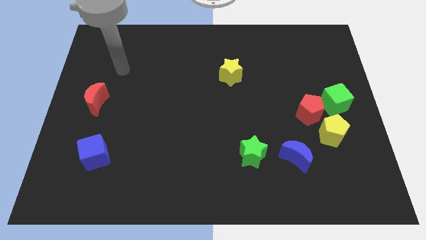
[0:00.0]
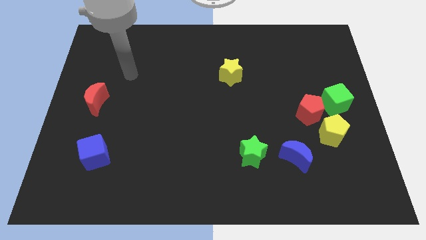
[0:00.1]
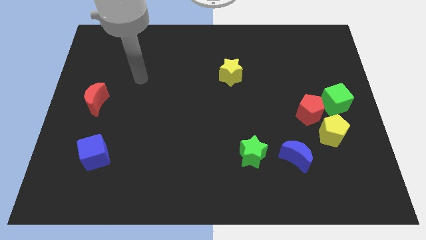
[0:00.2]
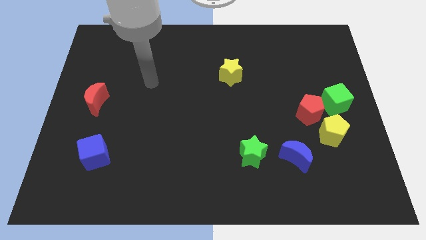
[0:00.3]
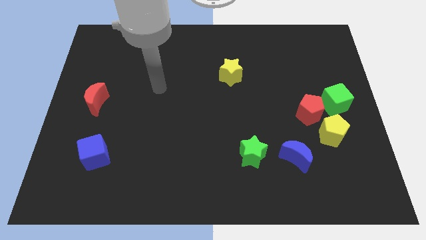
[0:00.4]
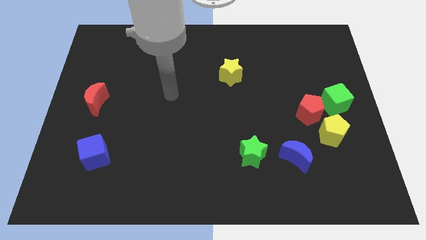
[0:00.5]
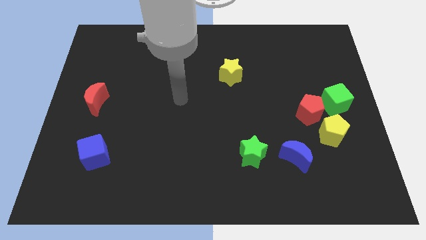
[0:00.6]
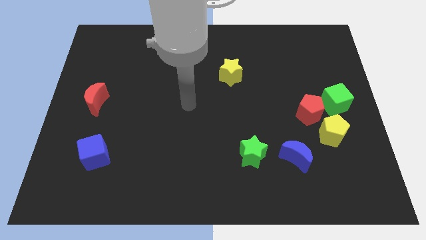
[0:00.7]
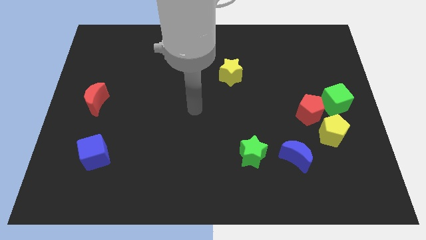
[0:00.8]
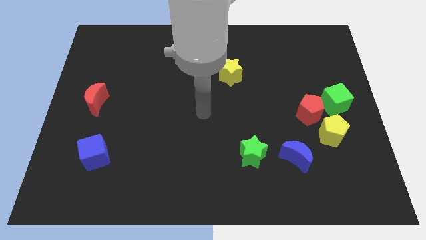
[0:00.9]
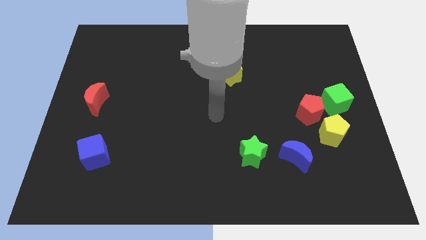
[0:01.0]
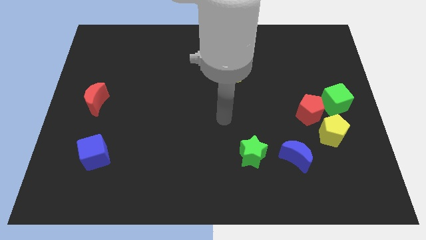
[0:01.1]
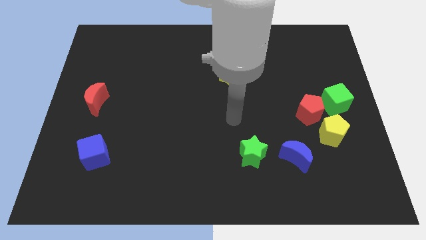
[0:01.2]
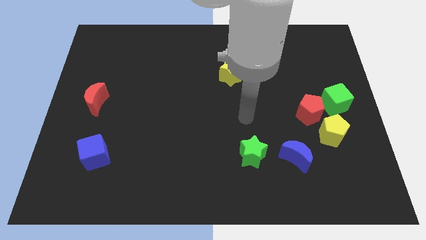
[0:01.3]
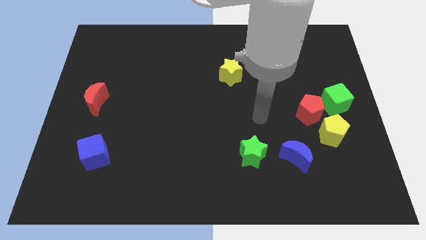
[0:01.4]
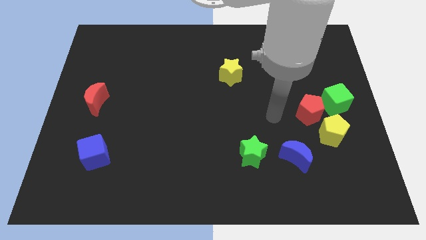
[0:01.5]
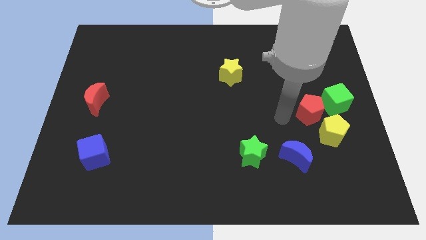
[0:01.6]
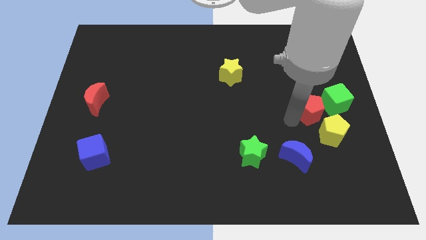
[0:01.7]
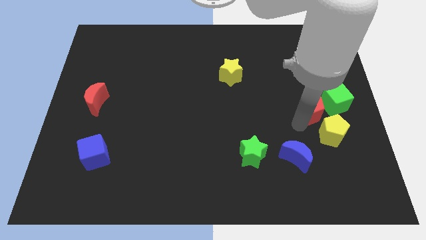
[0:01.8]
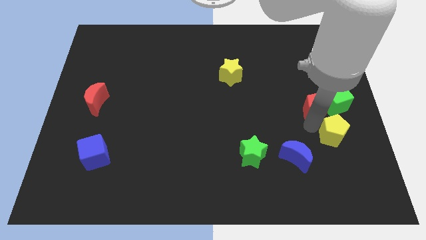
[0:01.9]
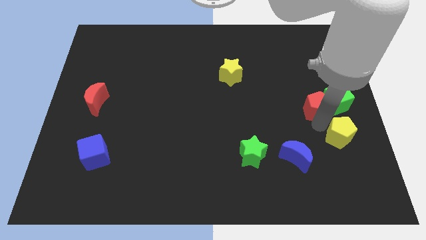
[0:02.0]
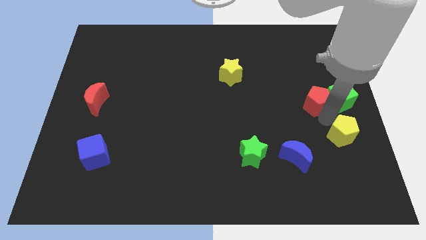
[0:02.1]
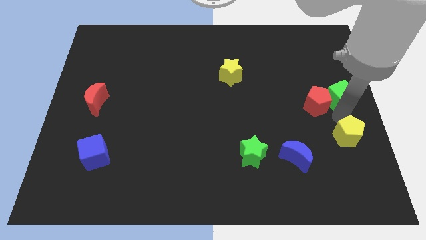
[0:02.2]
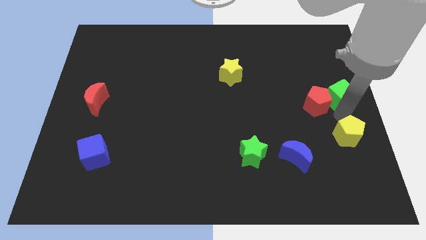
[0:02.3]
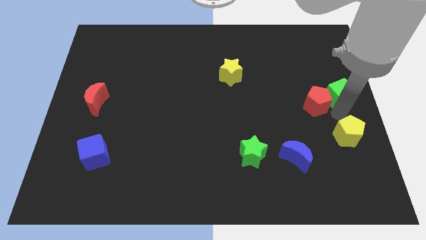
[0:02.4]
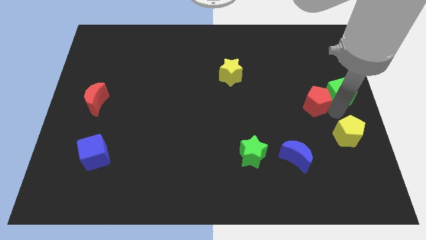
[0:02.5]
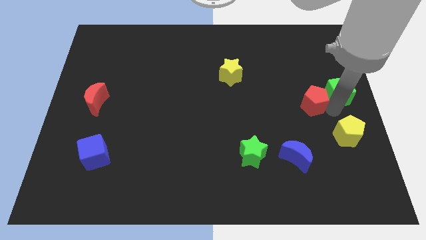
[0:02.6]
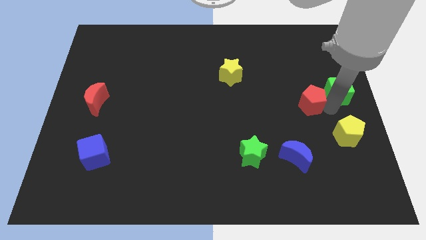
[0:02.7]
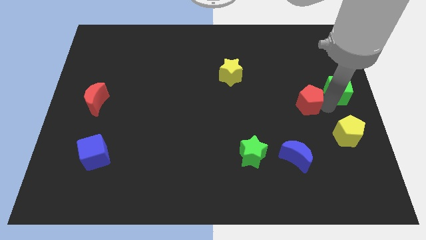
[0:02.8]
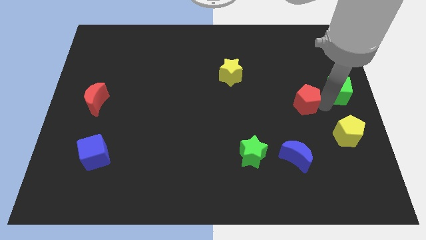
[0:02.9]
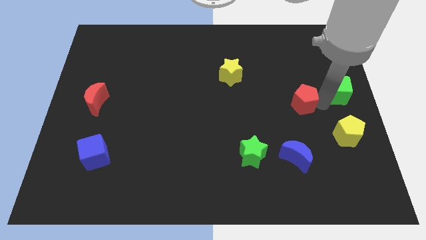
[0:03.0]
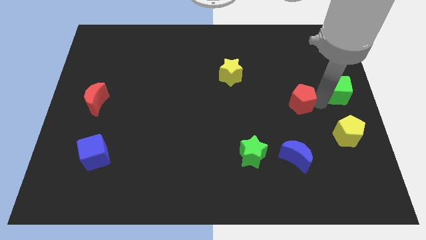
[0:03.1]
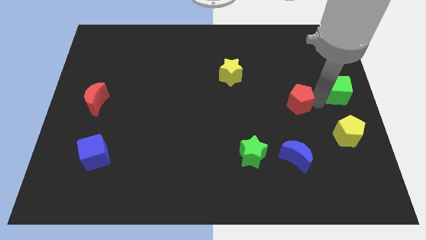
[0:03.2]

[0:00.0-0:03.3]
pull the red pentagon apart from the green cube and yellow pentagon

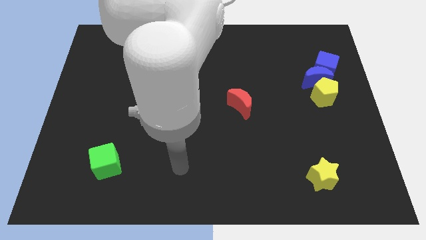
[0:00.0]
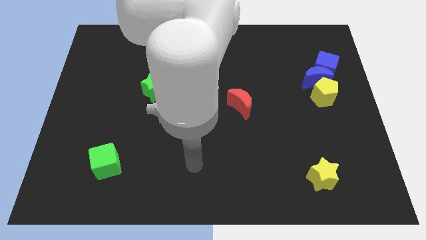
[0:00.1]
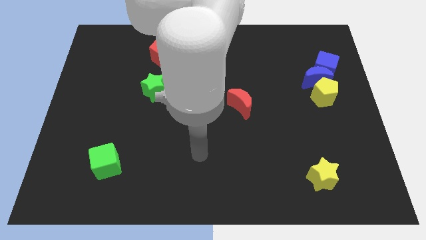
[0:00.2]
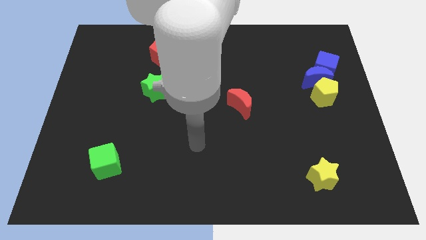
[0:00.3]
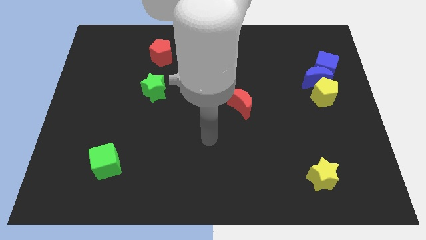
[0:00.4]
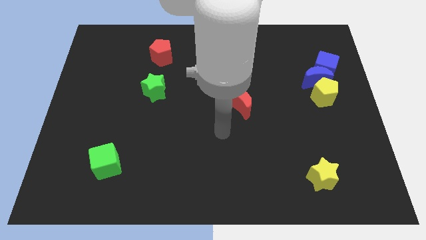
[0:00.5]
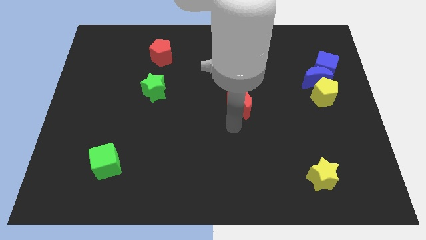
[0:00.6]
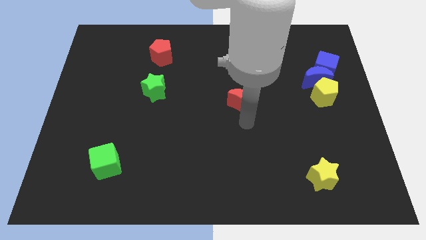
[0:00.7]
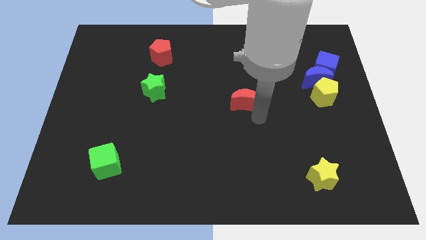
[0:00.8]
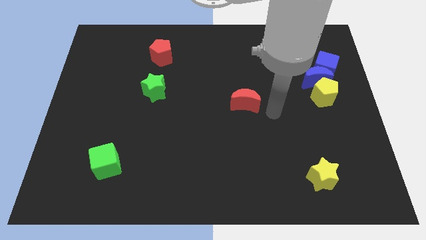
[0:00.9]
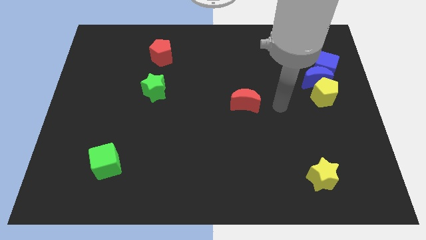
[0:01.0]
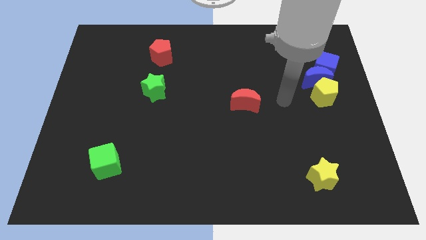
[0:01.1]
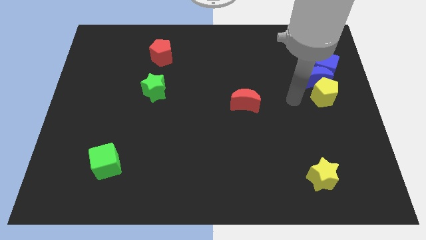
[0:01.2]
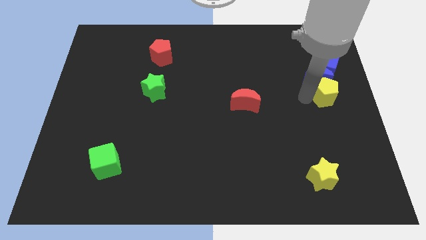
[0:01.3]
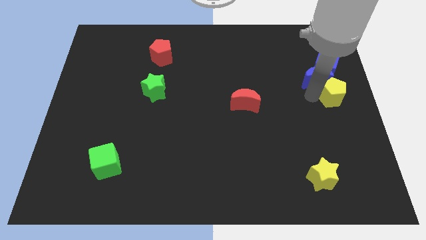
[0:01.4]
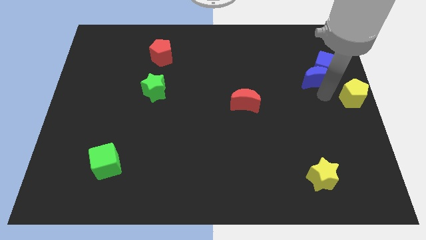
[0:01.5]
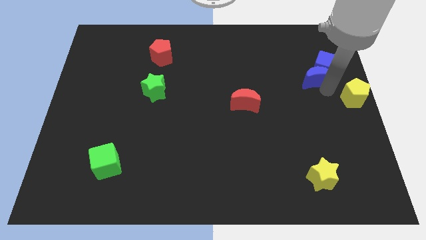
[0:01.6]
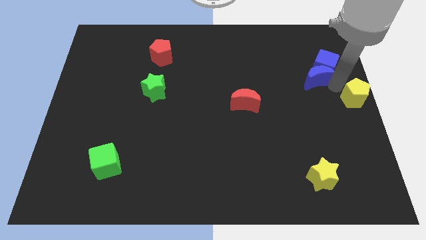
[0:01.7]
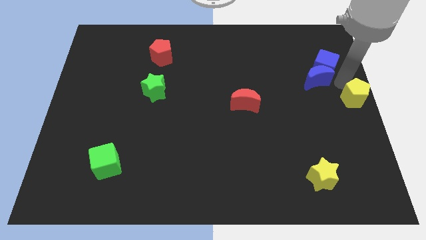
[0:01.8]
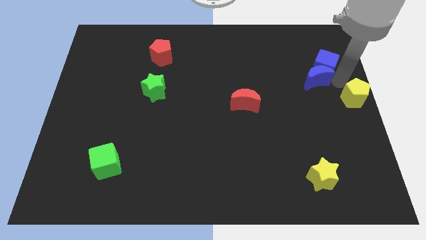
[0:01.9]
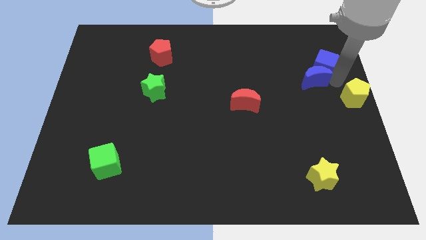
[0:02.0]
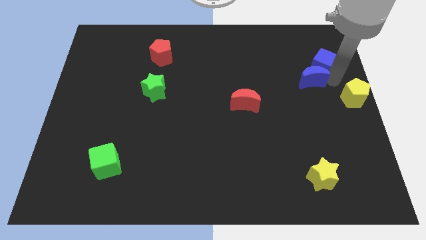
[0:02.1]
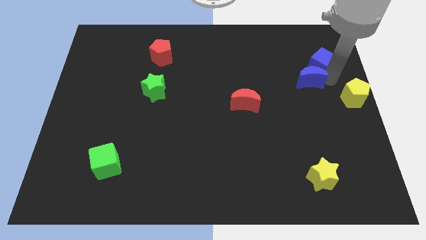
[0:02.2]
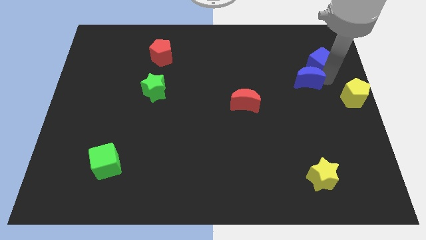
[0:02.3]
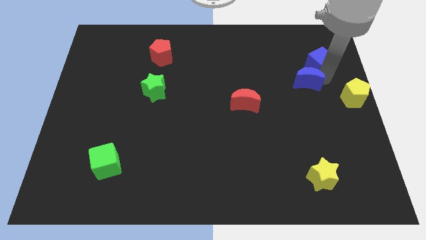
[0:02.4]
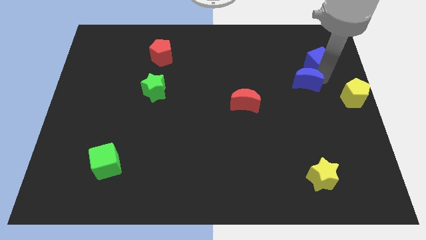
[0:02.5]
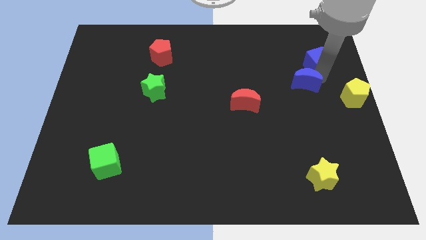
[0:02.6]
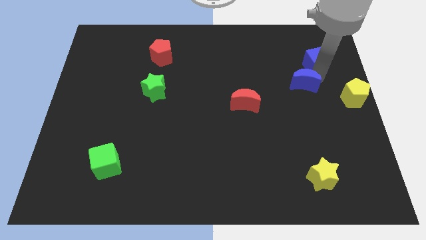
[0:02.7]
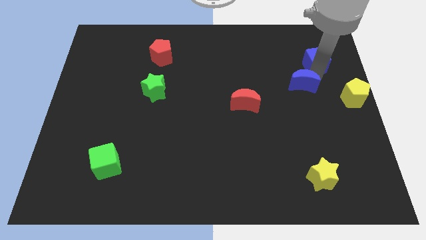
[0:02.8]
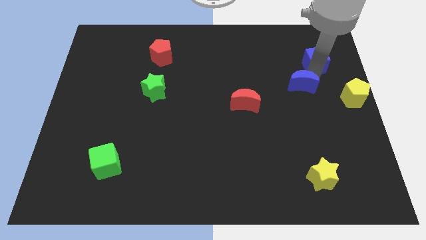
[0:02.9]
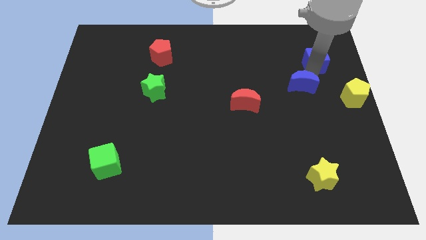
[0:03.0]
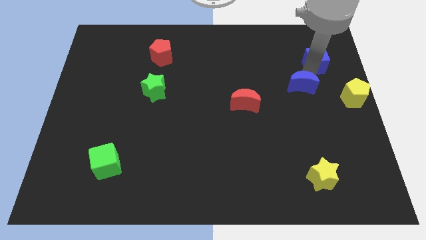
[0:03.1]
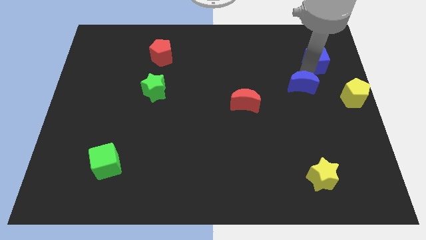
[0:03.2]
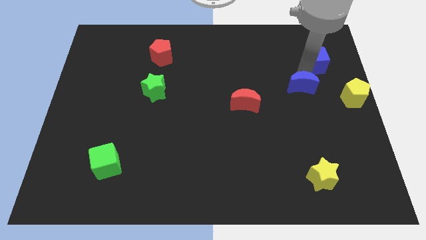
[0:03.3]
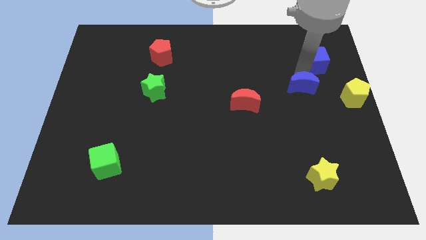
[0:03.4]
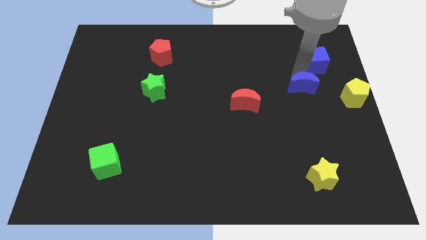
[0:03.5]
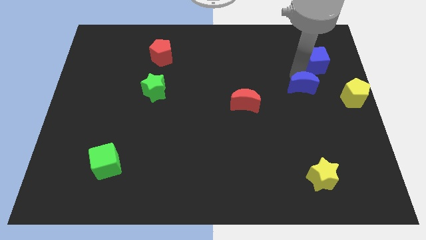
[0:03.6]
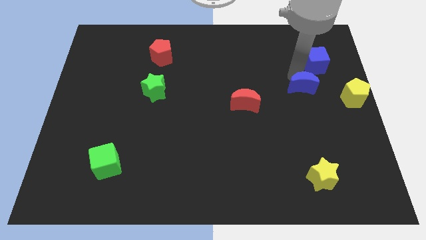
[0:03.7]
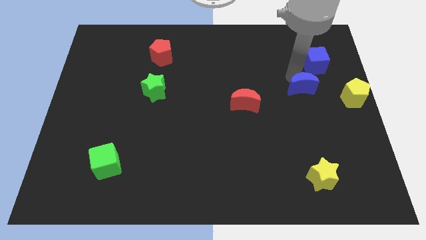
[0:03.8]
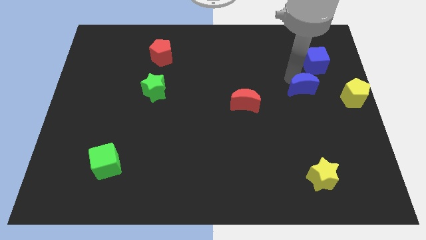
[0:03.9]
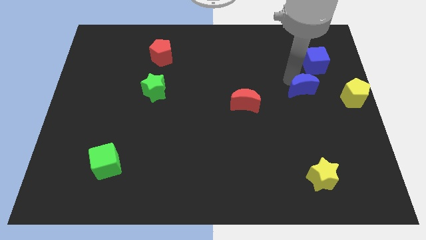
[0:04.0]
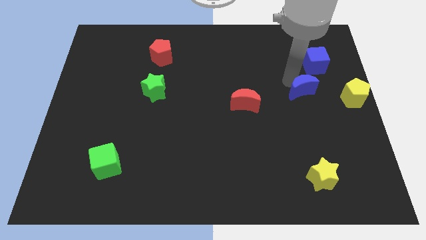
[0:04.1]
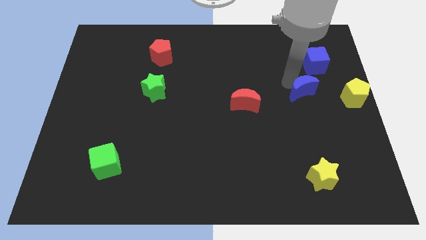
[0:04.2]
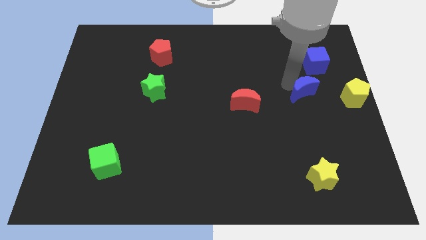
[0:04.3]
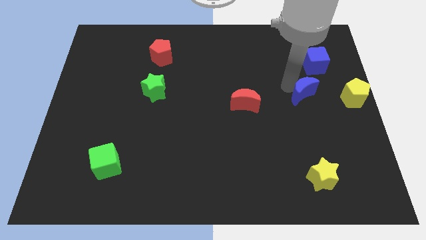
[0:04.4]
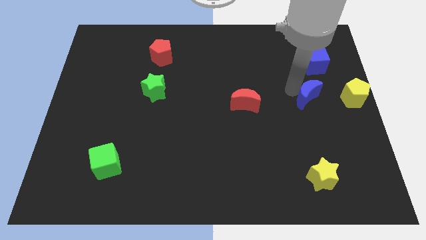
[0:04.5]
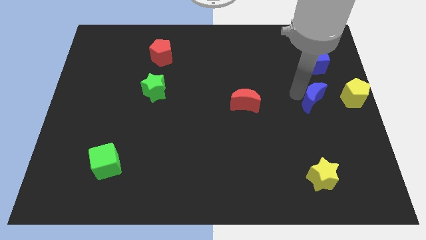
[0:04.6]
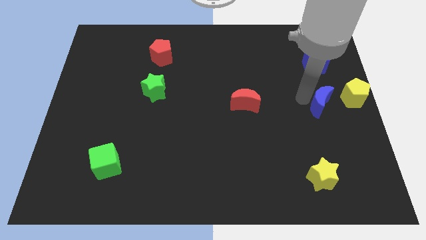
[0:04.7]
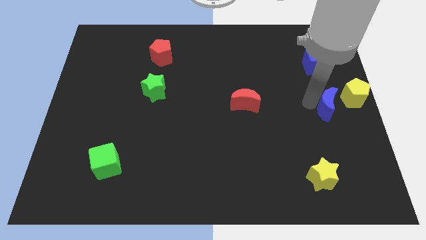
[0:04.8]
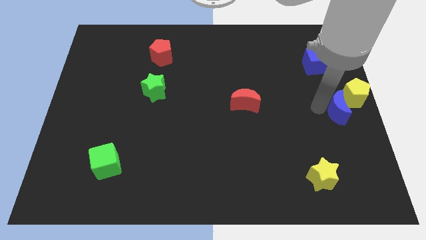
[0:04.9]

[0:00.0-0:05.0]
pull the blue moon apart from the blue cube and yellow pentagon

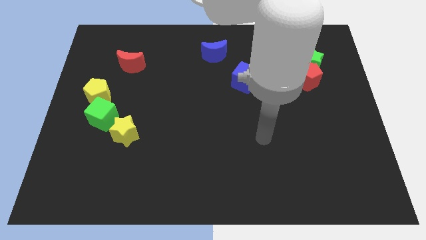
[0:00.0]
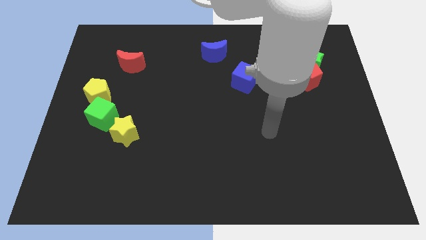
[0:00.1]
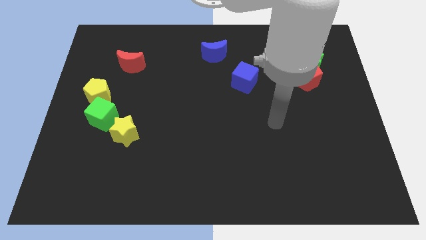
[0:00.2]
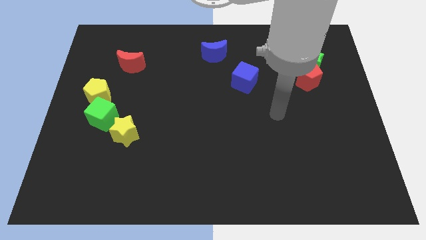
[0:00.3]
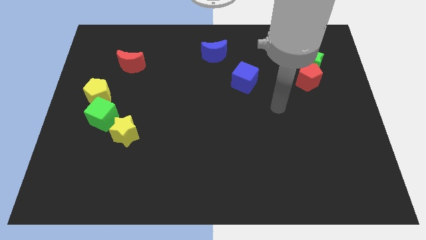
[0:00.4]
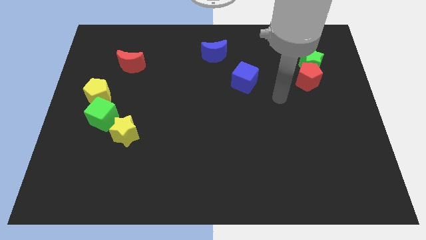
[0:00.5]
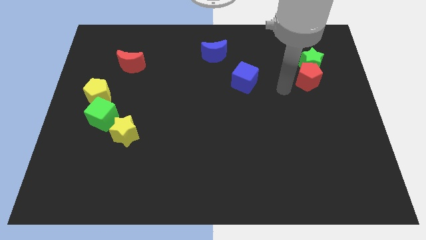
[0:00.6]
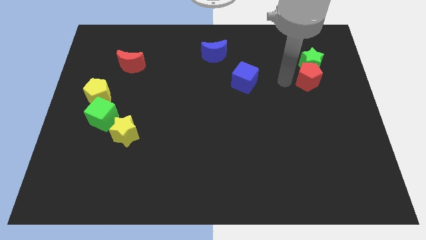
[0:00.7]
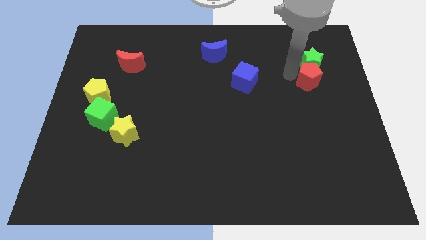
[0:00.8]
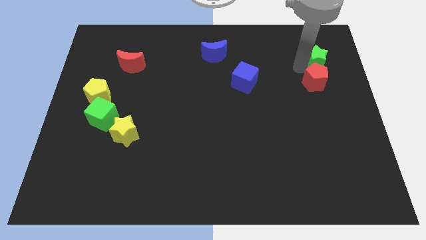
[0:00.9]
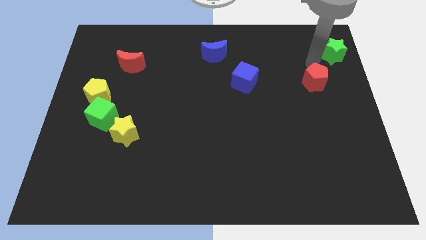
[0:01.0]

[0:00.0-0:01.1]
separate the red pentagon from the green star

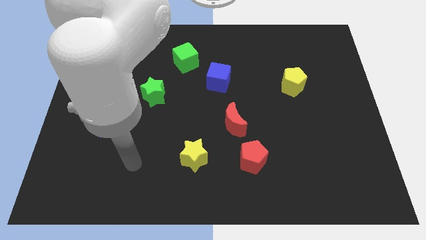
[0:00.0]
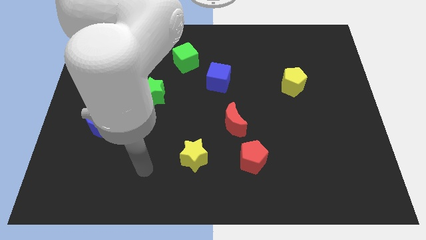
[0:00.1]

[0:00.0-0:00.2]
move the red moon away from the red pentagon

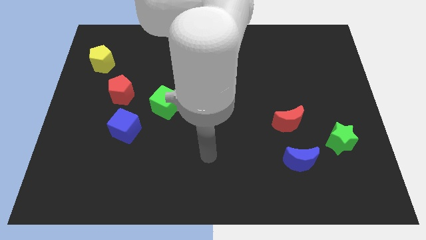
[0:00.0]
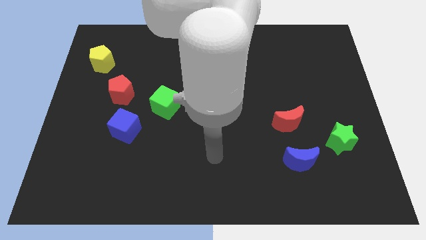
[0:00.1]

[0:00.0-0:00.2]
move the red moon away from the blue moon
